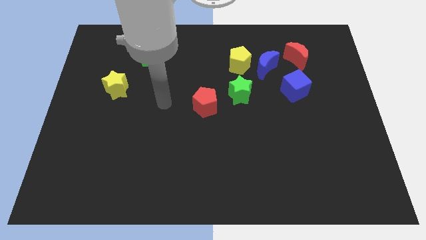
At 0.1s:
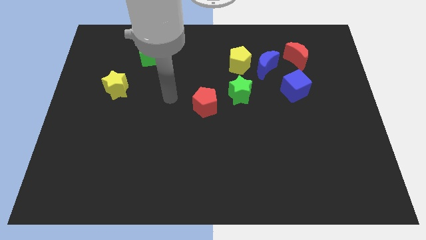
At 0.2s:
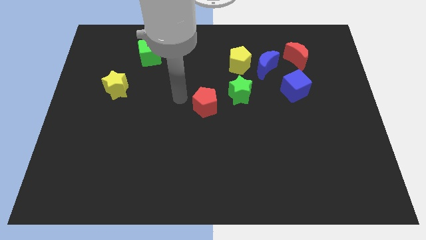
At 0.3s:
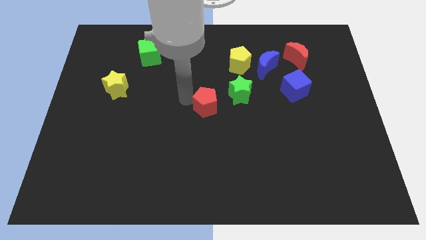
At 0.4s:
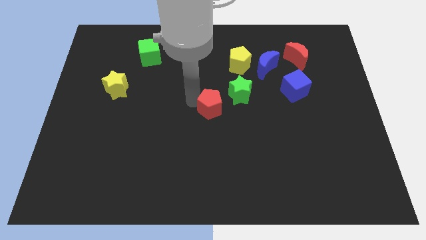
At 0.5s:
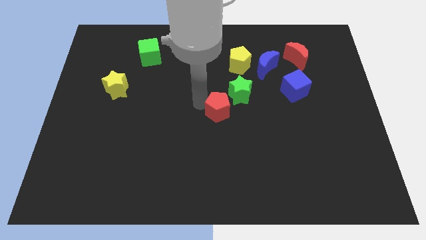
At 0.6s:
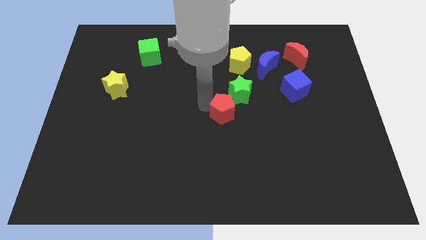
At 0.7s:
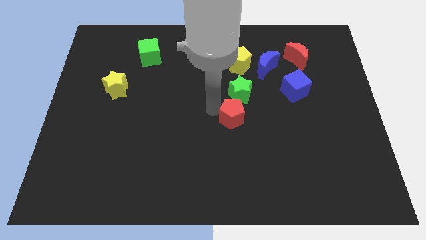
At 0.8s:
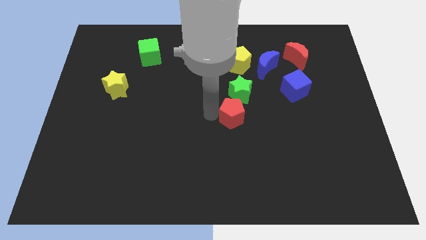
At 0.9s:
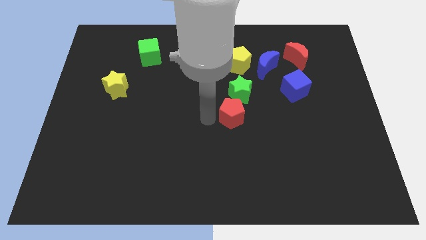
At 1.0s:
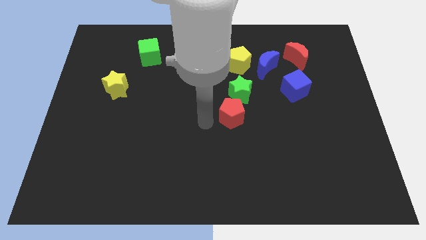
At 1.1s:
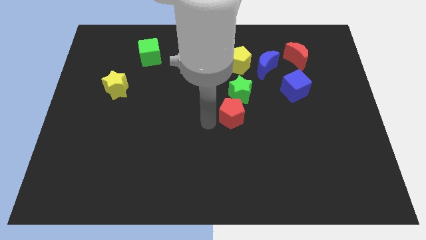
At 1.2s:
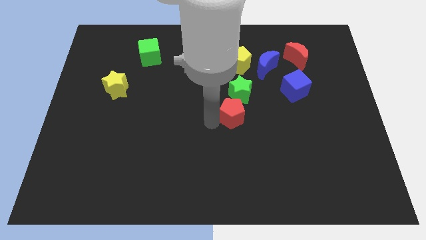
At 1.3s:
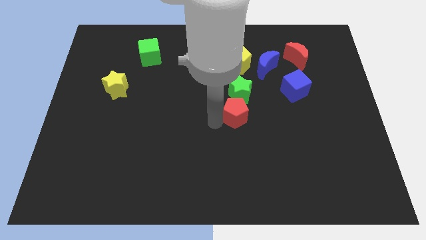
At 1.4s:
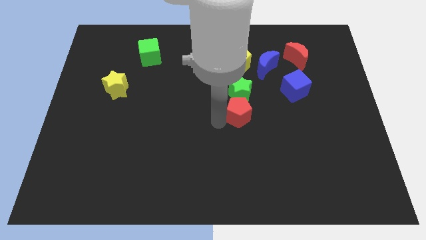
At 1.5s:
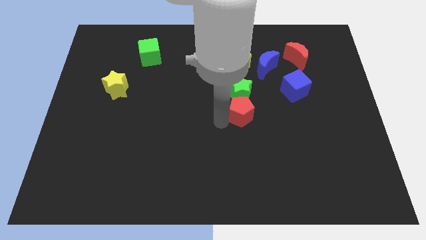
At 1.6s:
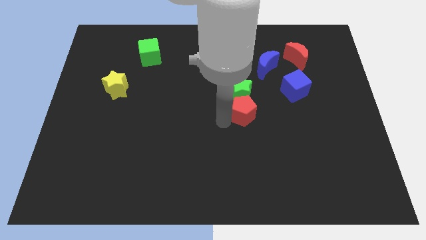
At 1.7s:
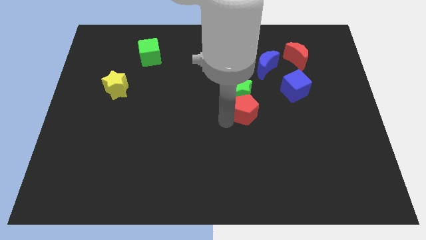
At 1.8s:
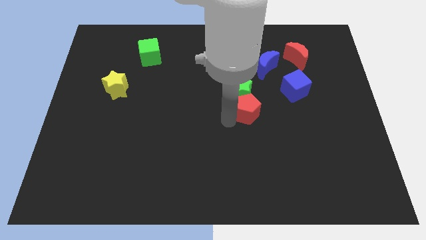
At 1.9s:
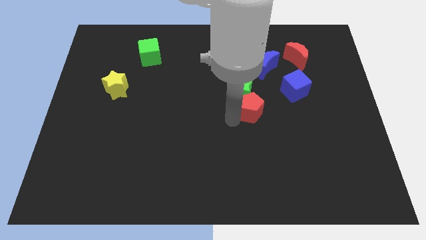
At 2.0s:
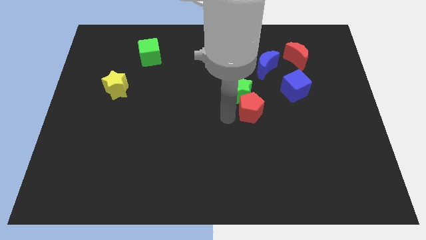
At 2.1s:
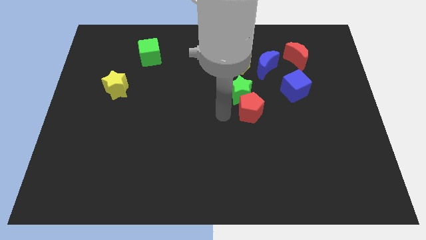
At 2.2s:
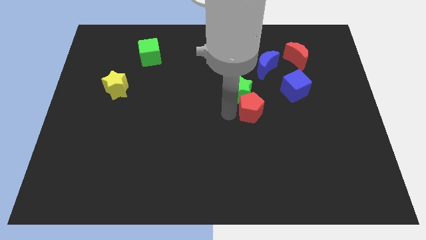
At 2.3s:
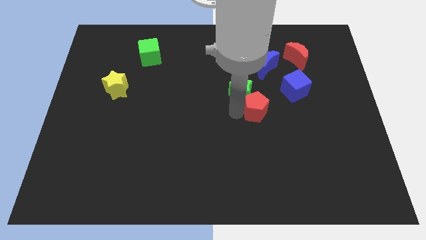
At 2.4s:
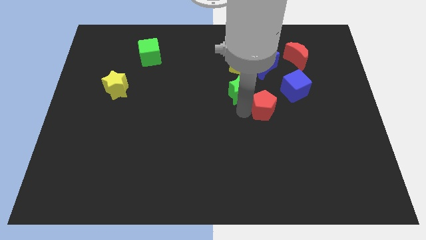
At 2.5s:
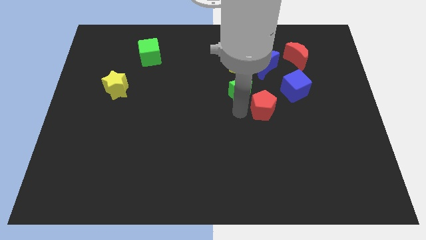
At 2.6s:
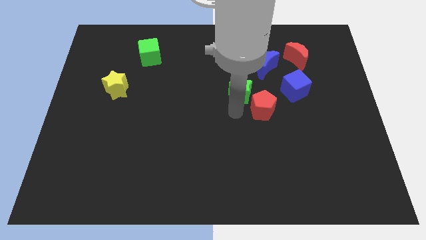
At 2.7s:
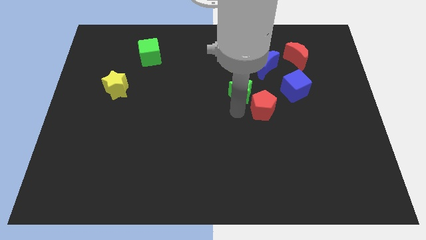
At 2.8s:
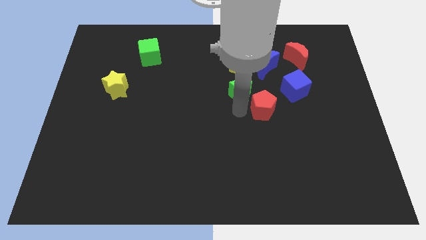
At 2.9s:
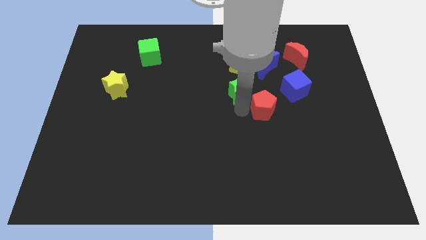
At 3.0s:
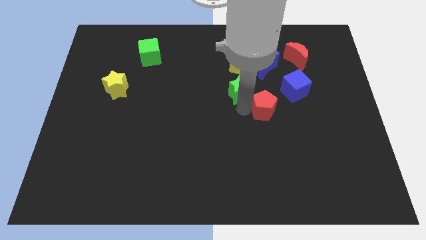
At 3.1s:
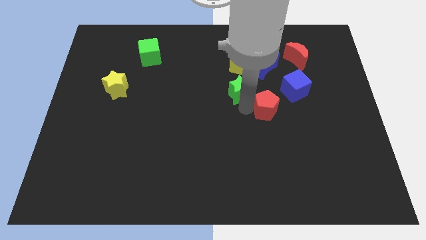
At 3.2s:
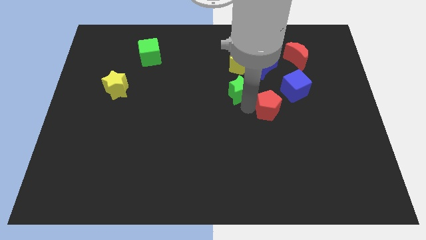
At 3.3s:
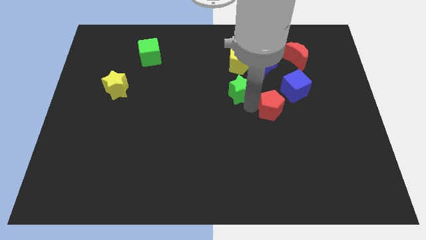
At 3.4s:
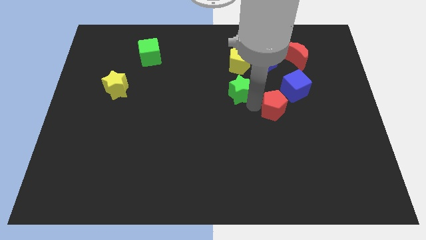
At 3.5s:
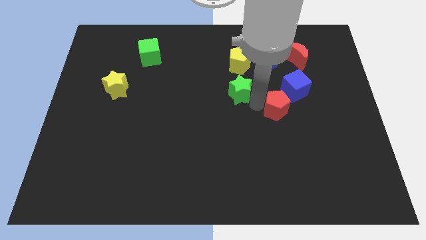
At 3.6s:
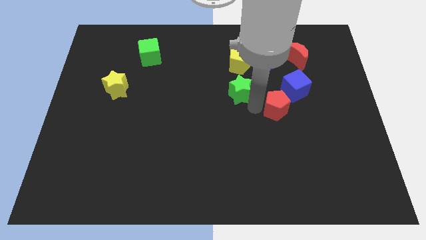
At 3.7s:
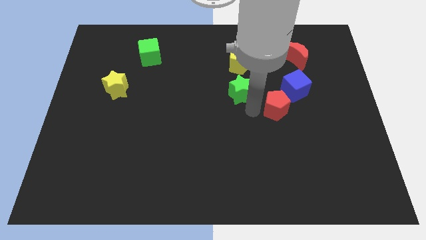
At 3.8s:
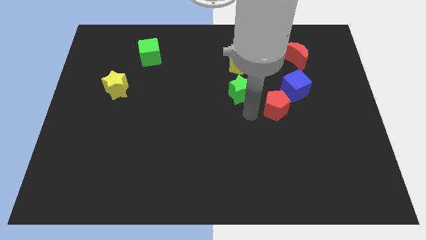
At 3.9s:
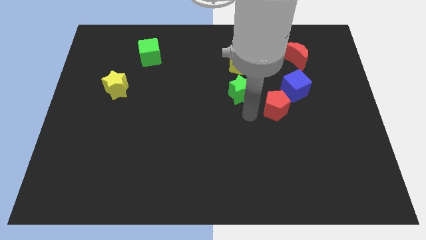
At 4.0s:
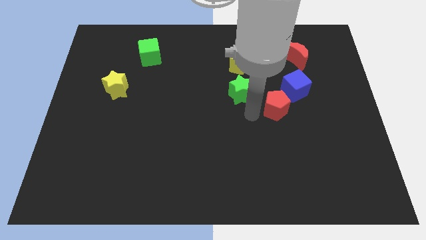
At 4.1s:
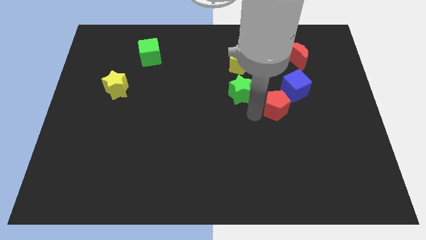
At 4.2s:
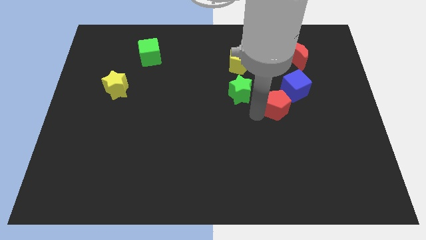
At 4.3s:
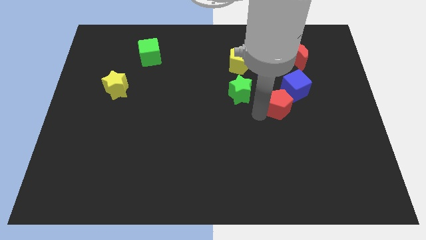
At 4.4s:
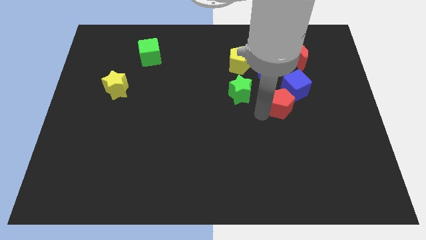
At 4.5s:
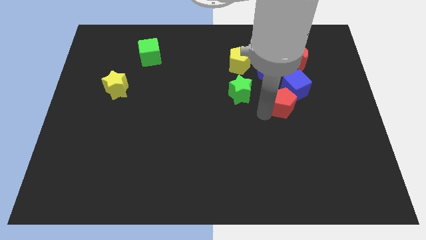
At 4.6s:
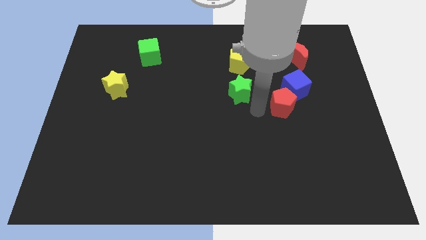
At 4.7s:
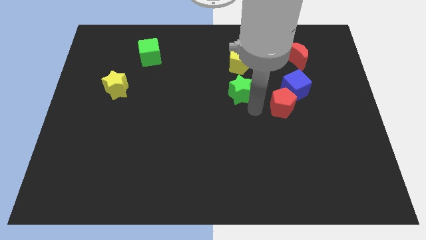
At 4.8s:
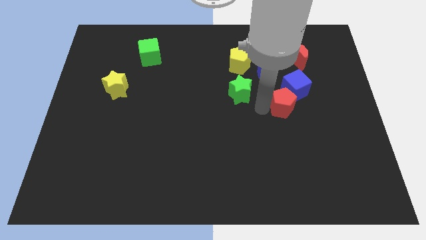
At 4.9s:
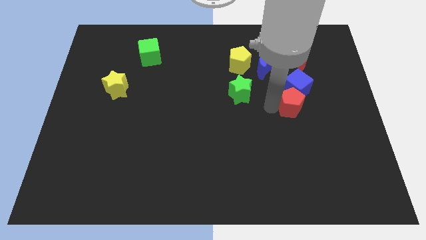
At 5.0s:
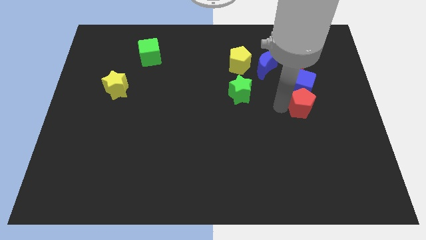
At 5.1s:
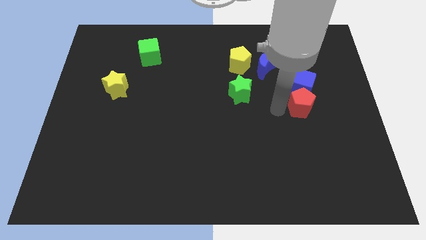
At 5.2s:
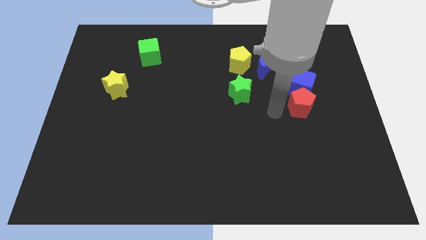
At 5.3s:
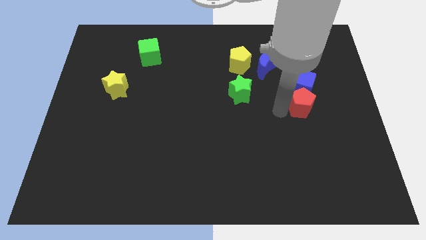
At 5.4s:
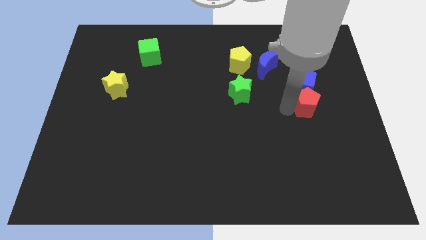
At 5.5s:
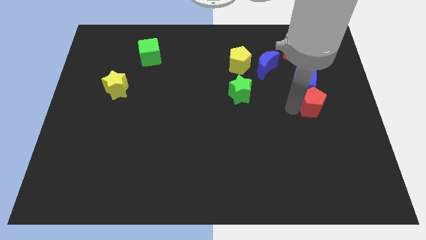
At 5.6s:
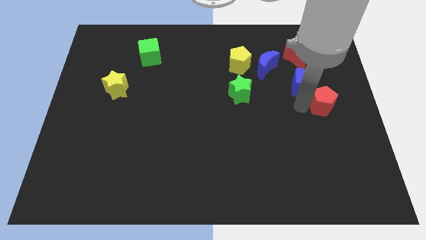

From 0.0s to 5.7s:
put the red pentagon to the right side of the board

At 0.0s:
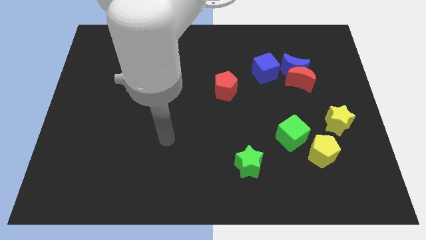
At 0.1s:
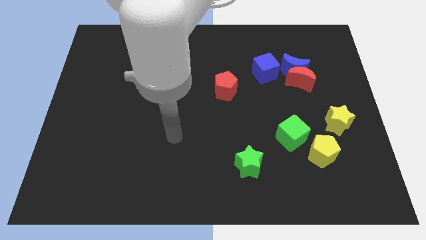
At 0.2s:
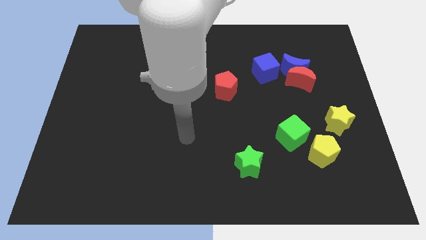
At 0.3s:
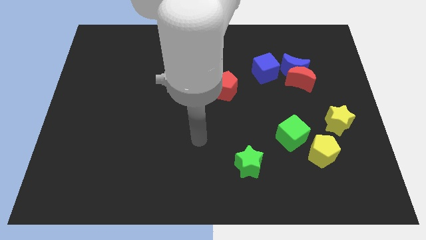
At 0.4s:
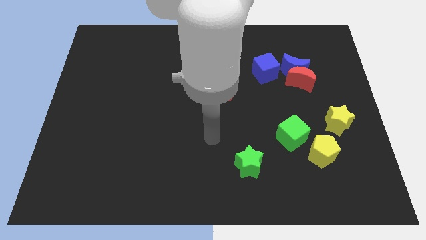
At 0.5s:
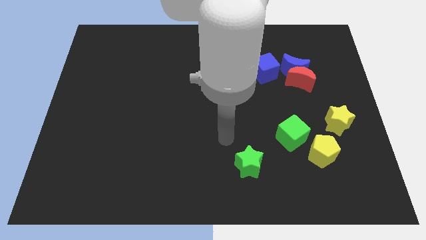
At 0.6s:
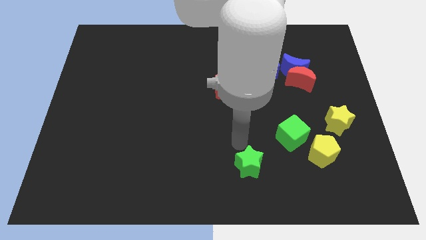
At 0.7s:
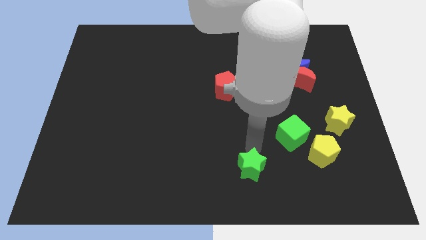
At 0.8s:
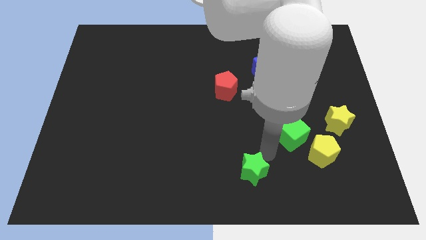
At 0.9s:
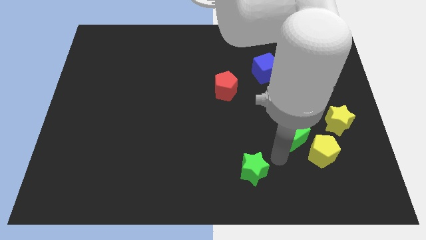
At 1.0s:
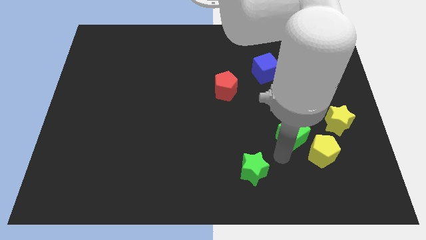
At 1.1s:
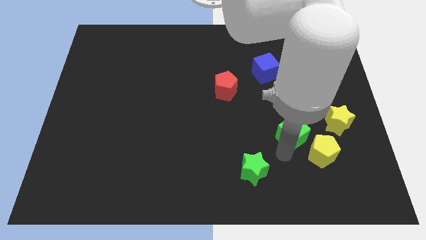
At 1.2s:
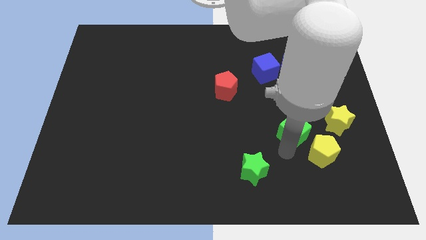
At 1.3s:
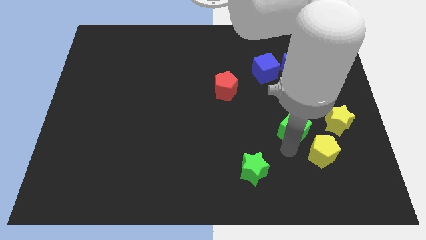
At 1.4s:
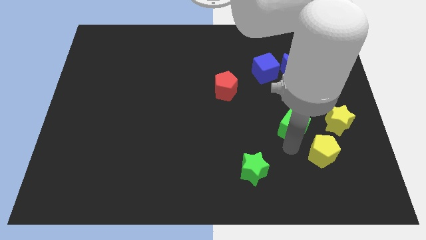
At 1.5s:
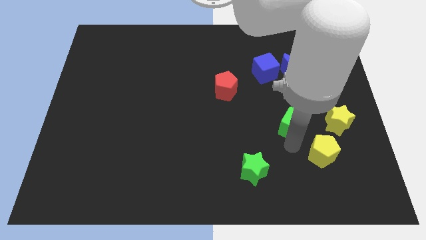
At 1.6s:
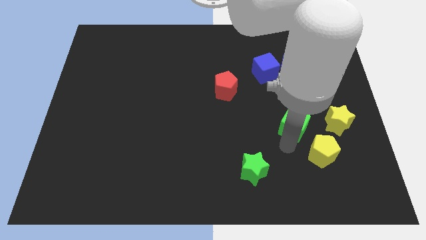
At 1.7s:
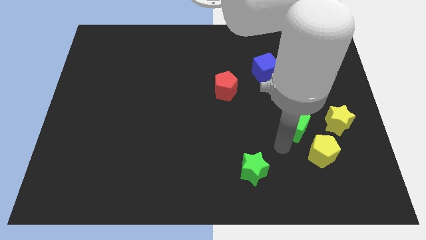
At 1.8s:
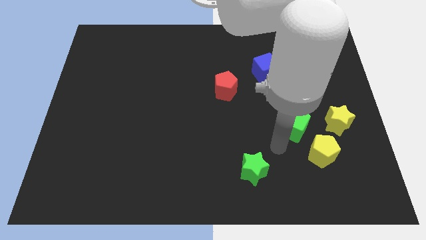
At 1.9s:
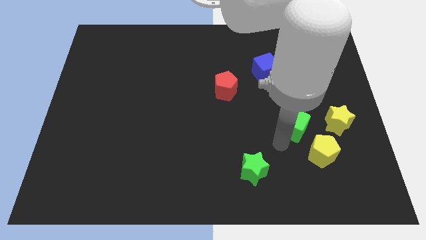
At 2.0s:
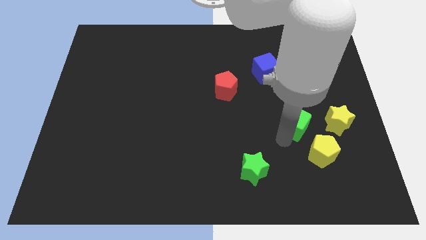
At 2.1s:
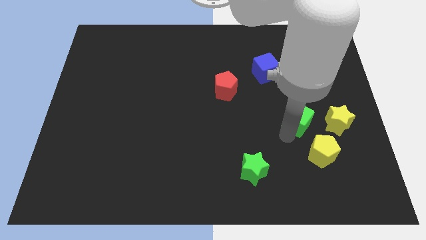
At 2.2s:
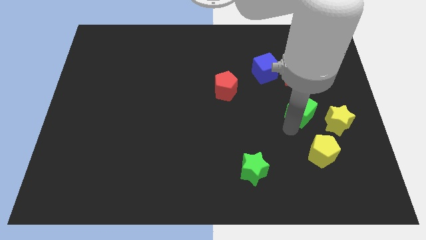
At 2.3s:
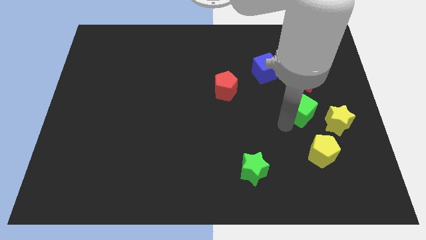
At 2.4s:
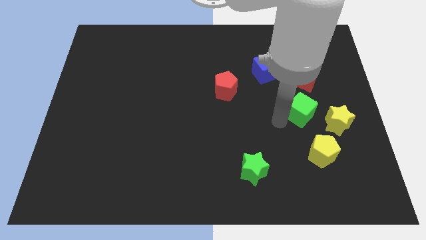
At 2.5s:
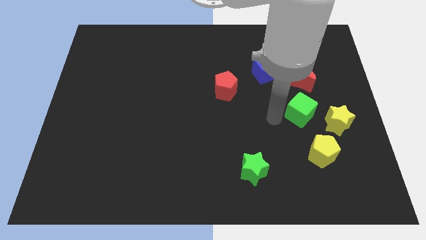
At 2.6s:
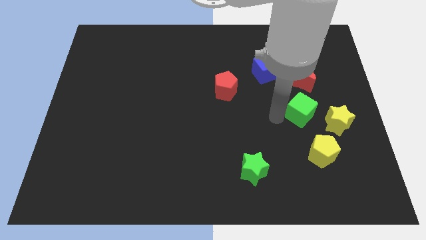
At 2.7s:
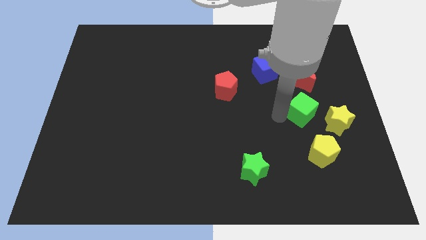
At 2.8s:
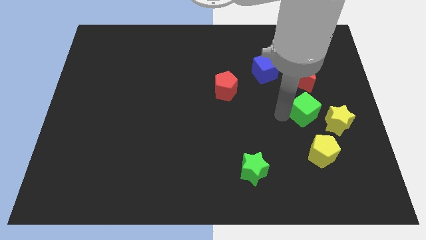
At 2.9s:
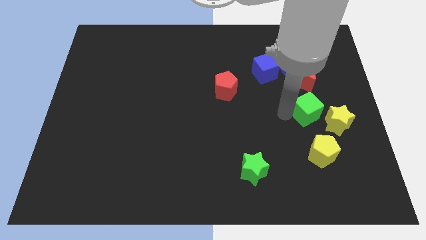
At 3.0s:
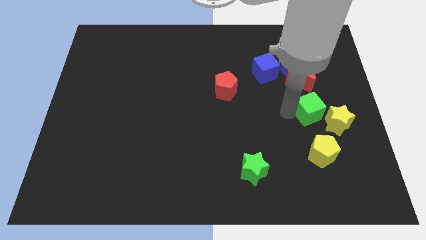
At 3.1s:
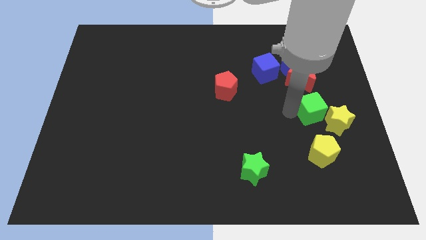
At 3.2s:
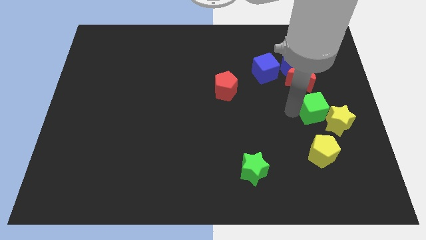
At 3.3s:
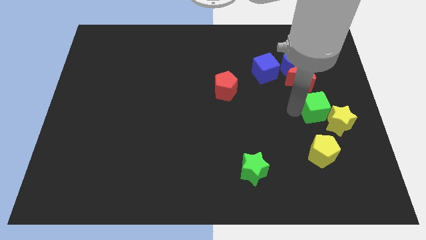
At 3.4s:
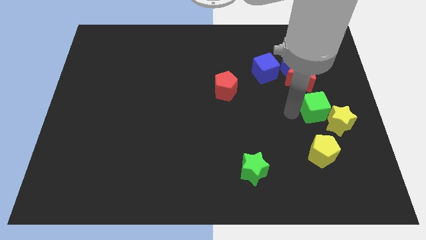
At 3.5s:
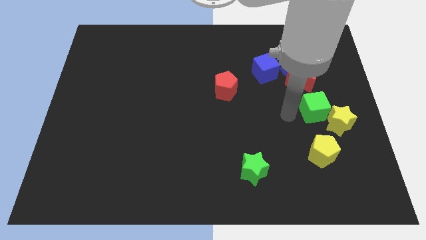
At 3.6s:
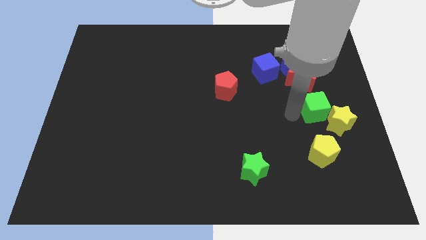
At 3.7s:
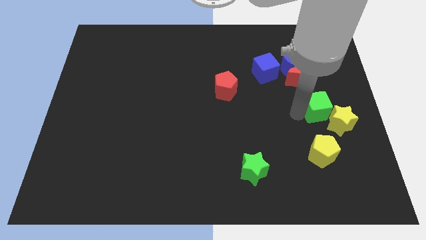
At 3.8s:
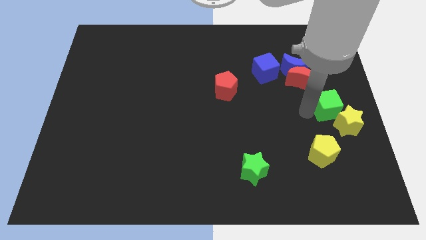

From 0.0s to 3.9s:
push the green cube to the center right
